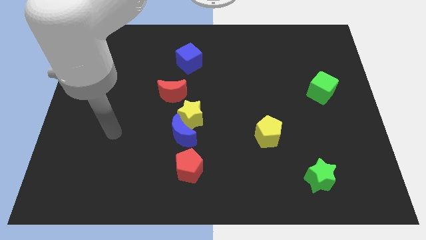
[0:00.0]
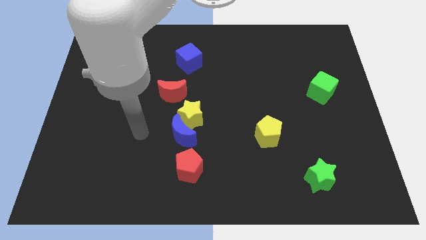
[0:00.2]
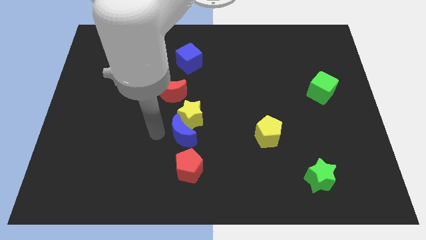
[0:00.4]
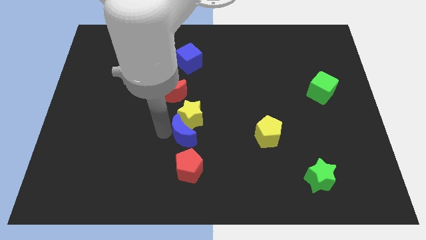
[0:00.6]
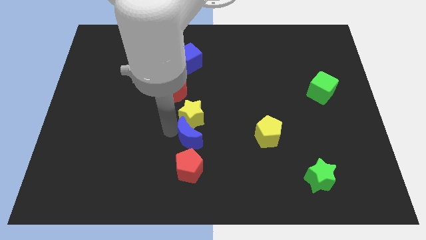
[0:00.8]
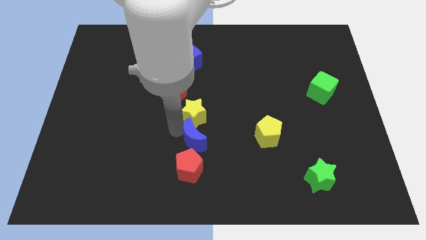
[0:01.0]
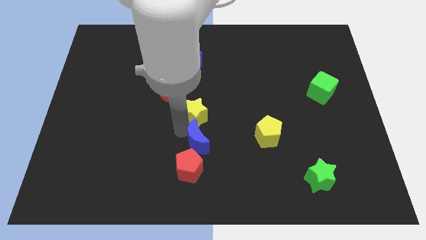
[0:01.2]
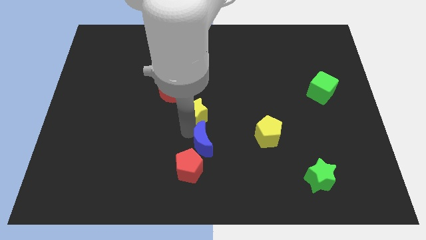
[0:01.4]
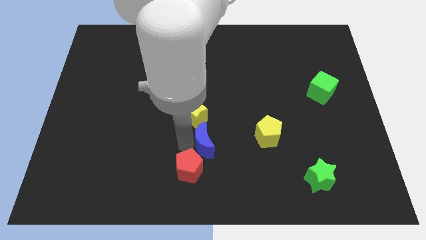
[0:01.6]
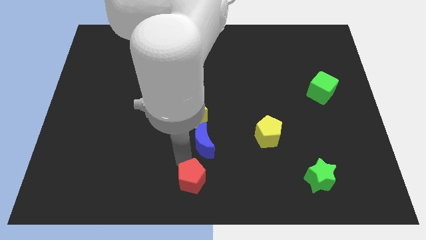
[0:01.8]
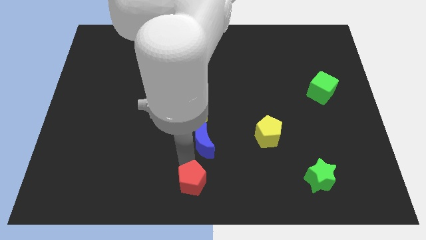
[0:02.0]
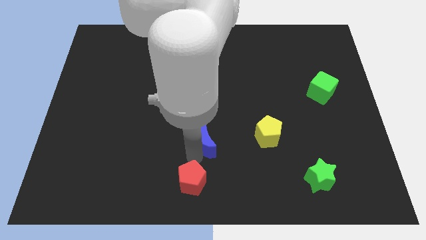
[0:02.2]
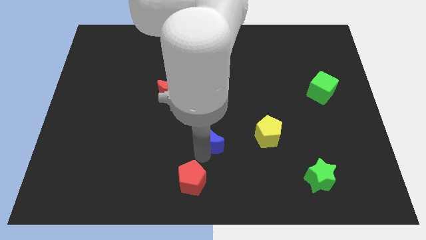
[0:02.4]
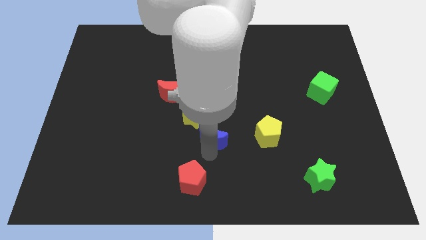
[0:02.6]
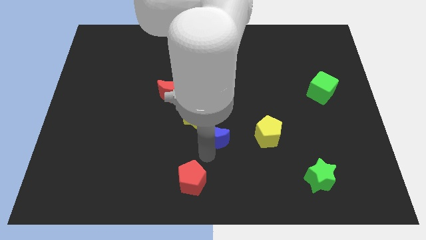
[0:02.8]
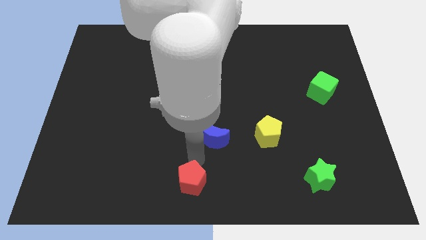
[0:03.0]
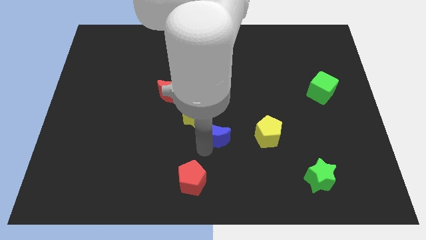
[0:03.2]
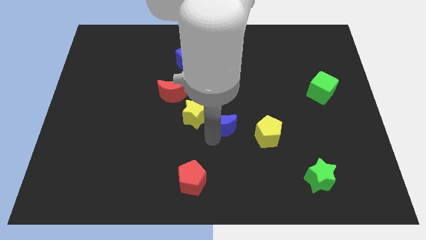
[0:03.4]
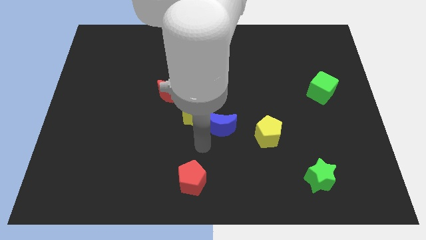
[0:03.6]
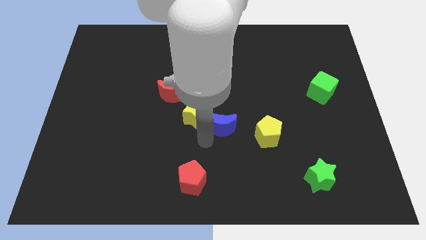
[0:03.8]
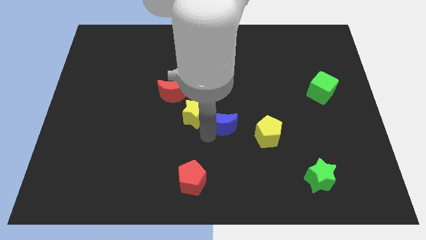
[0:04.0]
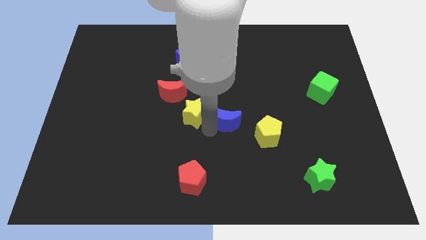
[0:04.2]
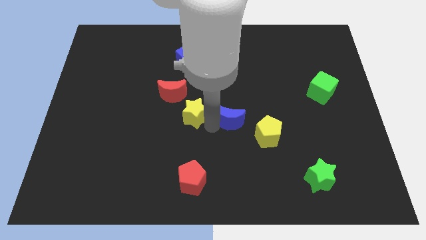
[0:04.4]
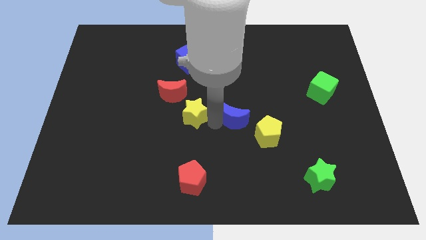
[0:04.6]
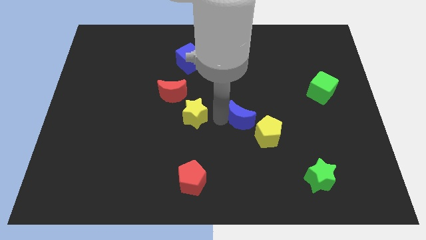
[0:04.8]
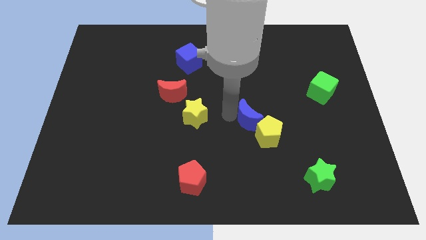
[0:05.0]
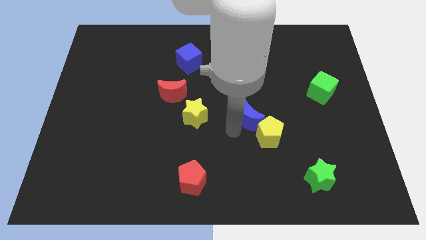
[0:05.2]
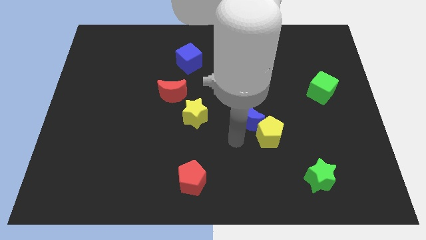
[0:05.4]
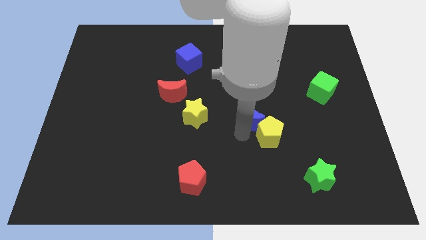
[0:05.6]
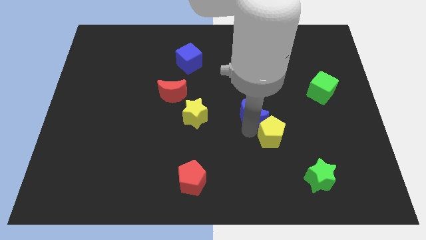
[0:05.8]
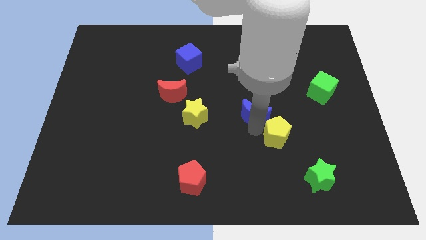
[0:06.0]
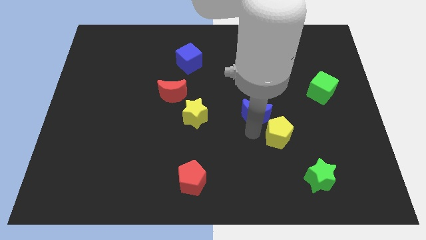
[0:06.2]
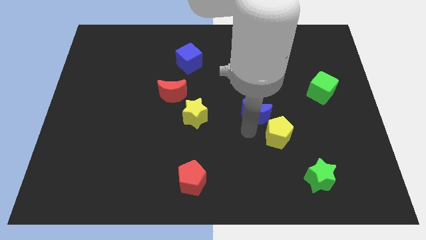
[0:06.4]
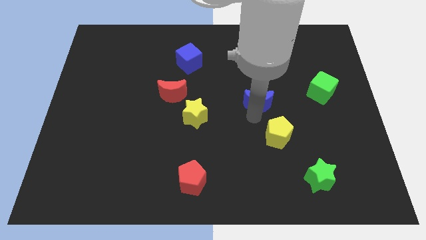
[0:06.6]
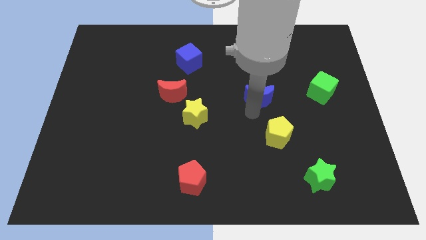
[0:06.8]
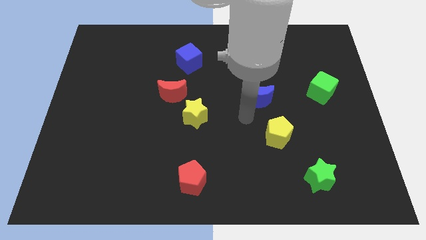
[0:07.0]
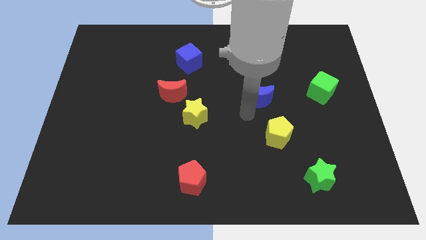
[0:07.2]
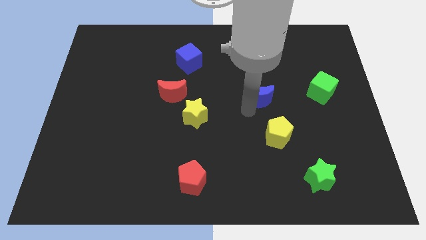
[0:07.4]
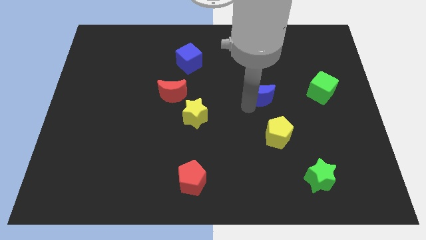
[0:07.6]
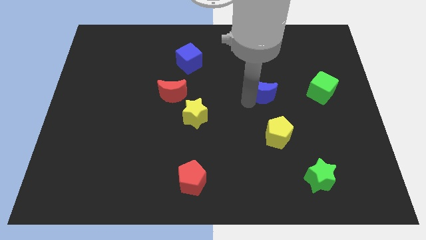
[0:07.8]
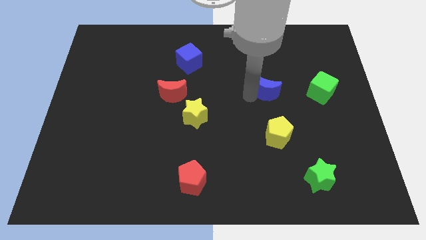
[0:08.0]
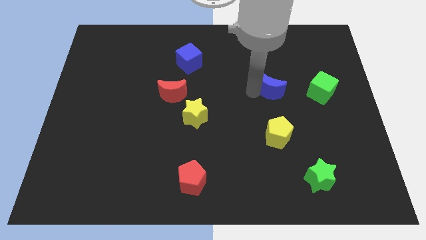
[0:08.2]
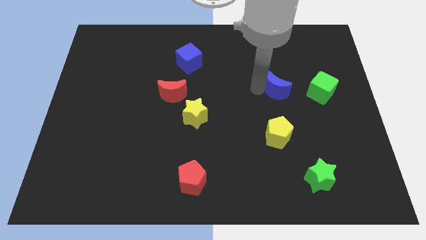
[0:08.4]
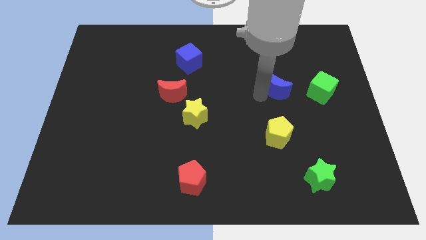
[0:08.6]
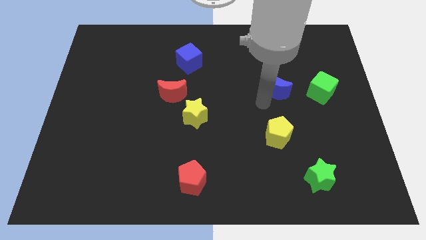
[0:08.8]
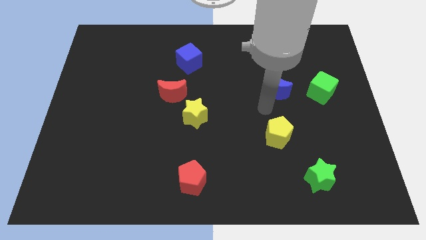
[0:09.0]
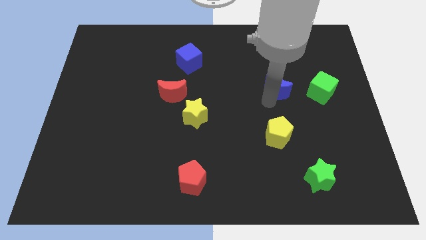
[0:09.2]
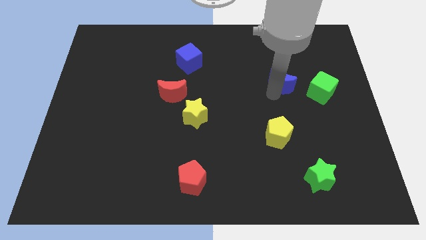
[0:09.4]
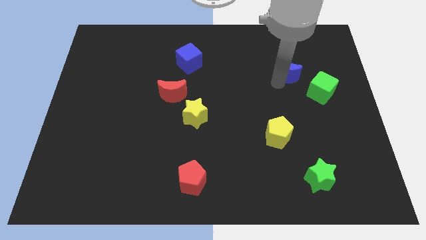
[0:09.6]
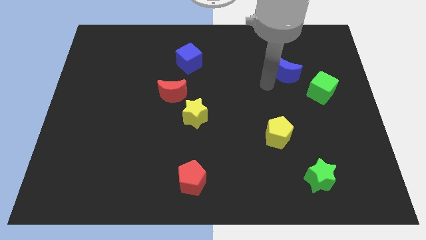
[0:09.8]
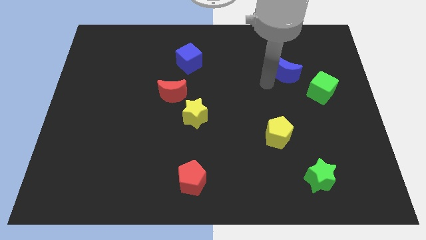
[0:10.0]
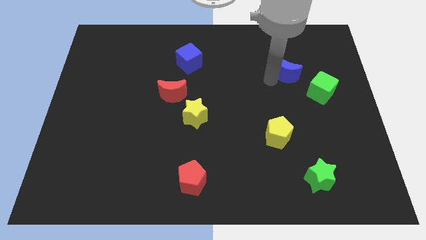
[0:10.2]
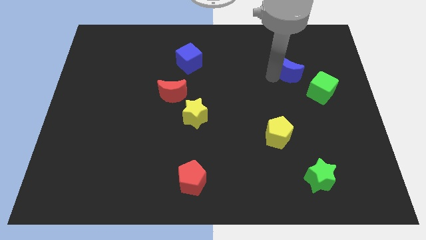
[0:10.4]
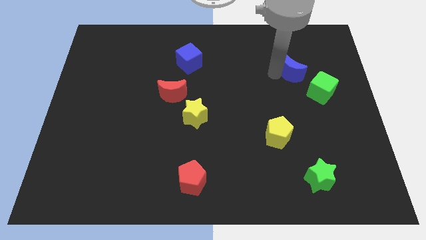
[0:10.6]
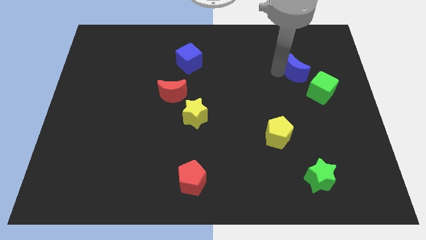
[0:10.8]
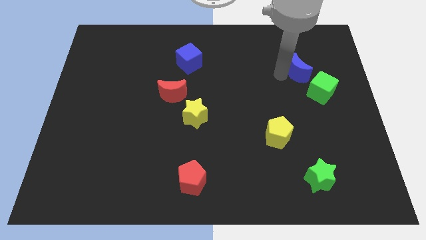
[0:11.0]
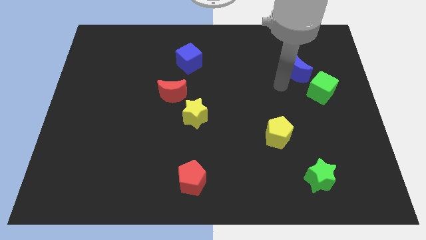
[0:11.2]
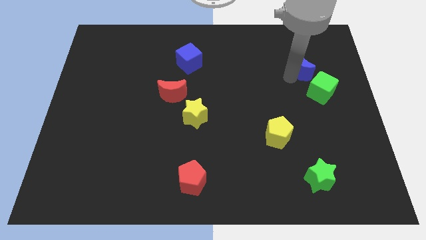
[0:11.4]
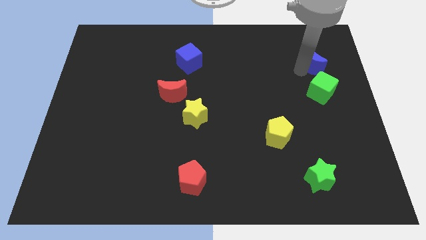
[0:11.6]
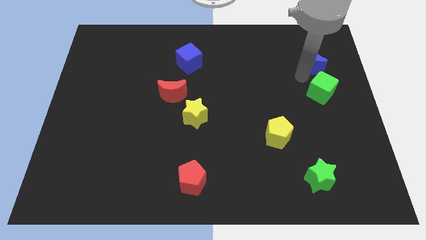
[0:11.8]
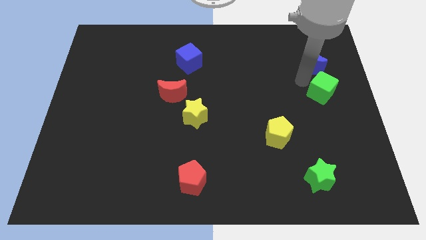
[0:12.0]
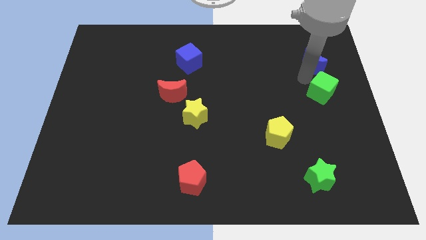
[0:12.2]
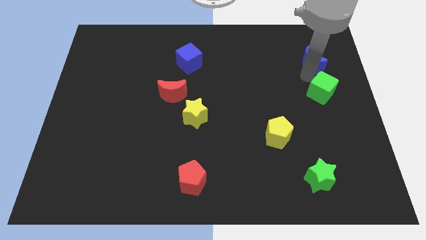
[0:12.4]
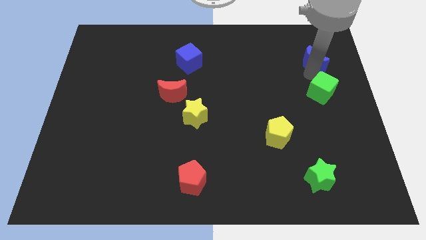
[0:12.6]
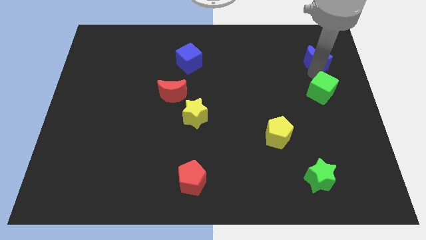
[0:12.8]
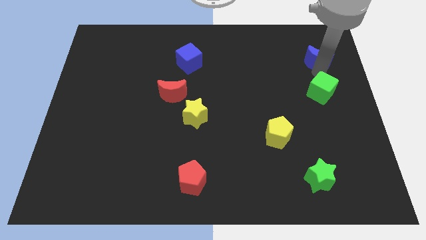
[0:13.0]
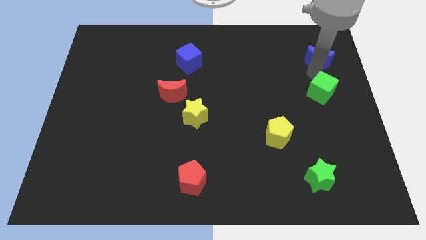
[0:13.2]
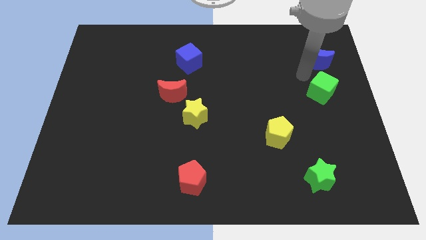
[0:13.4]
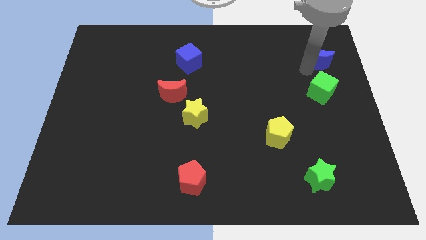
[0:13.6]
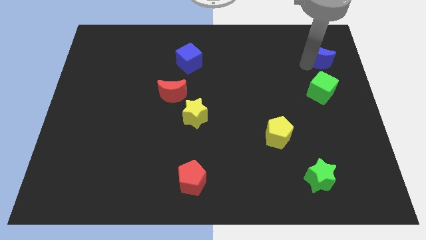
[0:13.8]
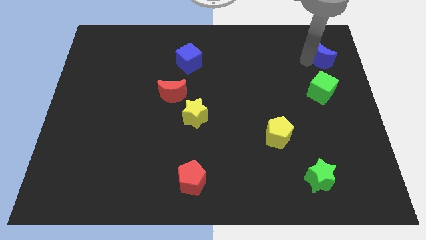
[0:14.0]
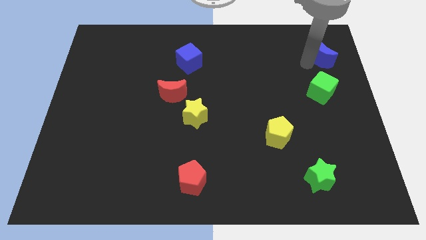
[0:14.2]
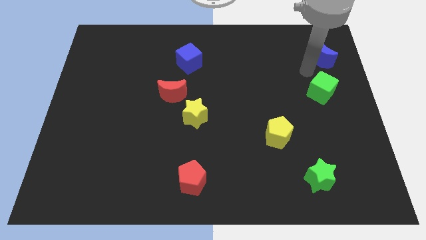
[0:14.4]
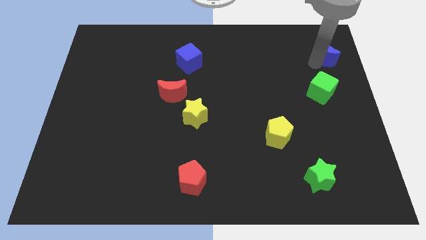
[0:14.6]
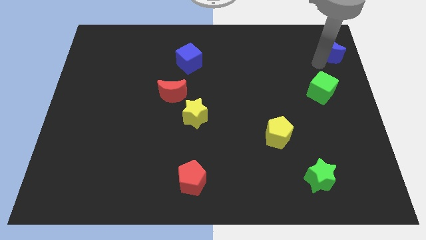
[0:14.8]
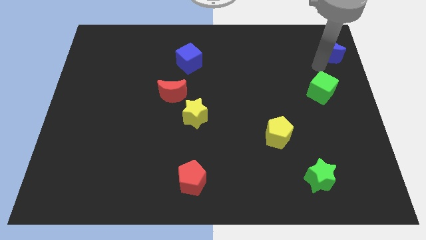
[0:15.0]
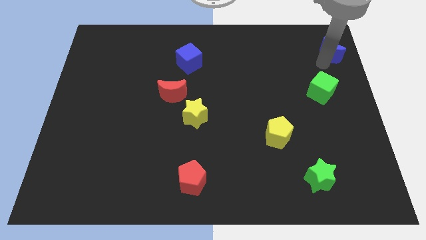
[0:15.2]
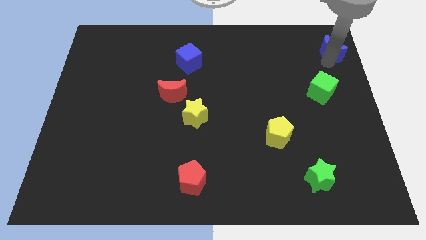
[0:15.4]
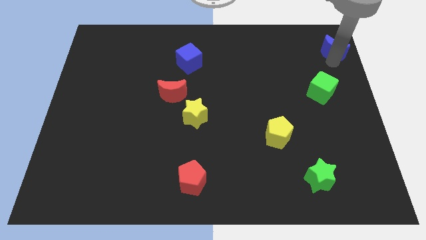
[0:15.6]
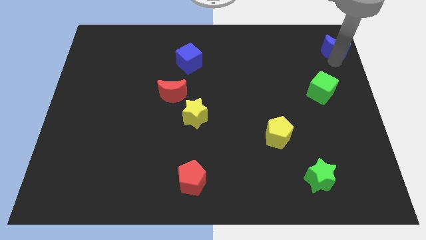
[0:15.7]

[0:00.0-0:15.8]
slide the blue moon to the top right corner
